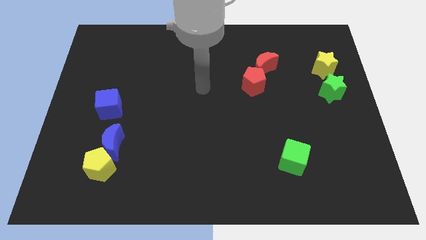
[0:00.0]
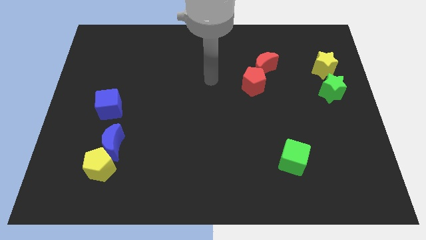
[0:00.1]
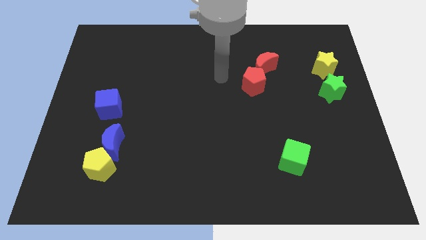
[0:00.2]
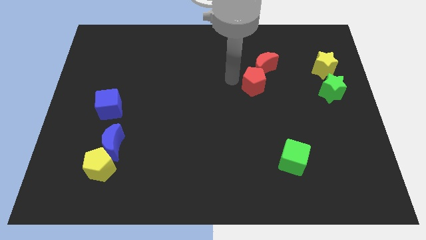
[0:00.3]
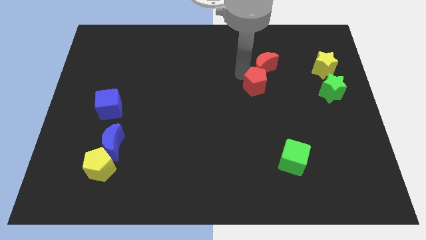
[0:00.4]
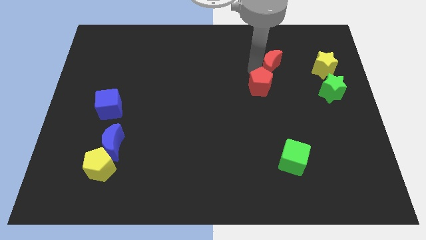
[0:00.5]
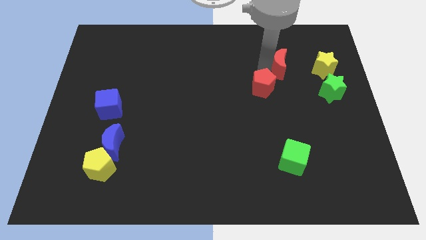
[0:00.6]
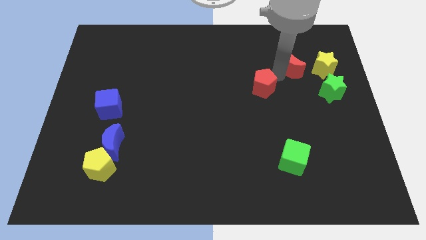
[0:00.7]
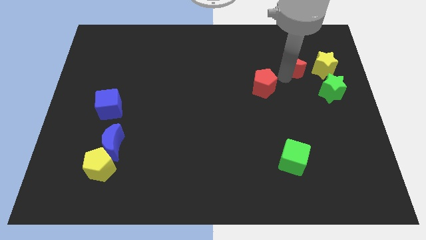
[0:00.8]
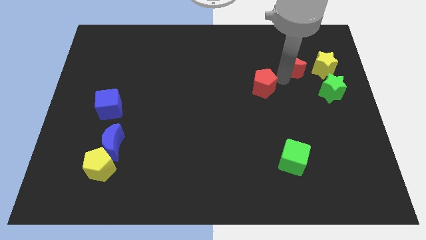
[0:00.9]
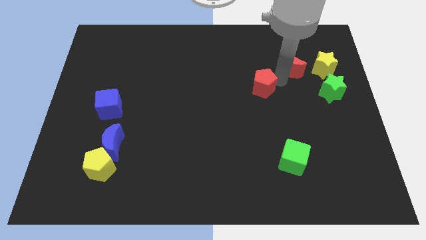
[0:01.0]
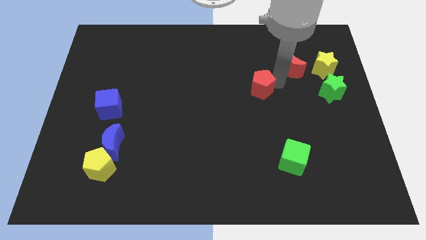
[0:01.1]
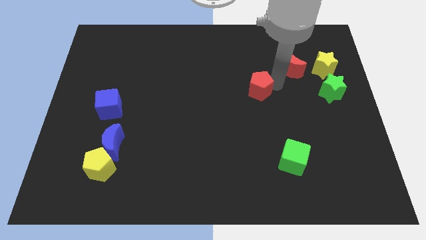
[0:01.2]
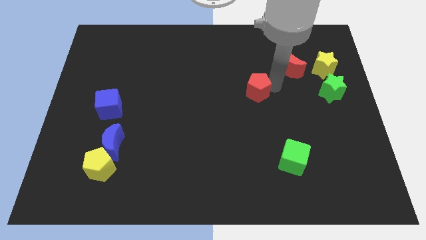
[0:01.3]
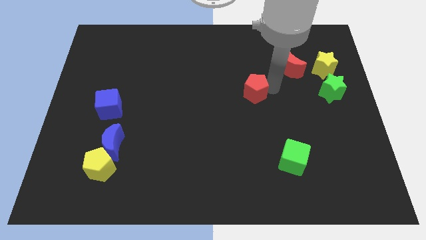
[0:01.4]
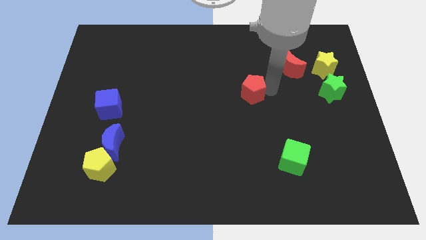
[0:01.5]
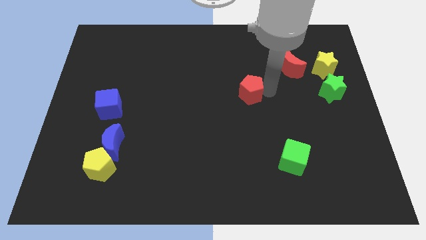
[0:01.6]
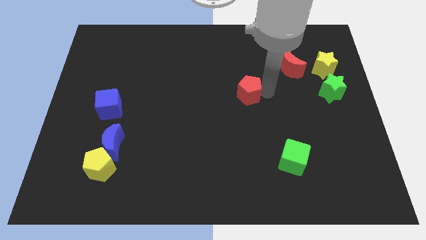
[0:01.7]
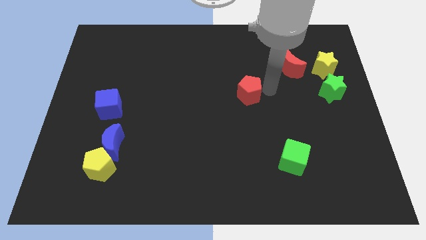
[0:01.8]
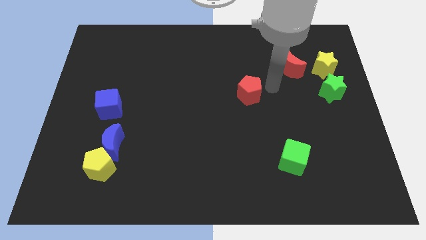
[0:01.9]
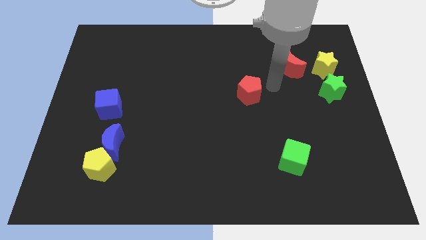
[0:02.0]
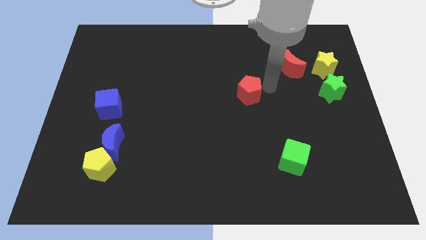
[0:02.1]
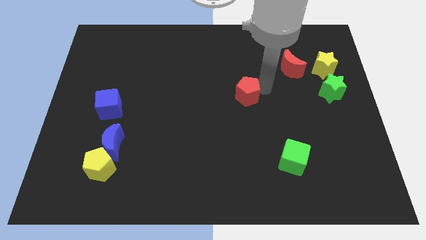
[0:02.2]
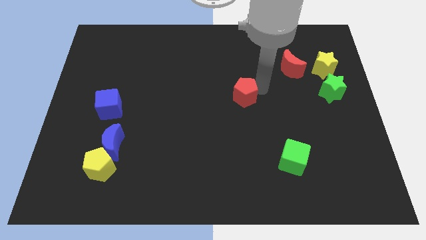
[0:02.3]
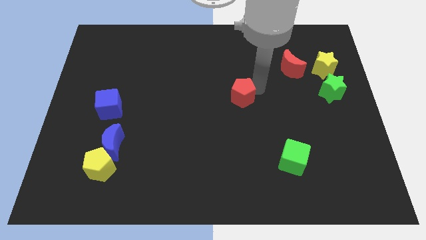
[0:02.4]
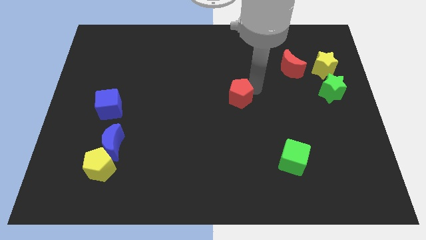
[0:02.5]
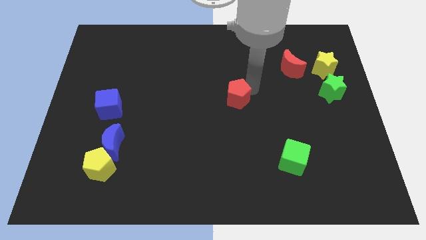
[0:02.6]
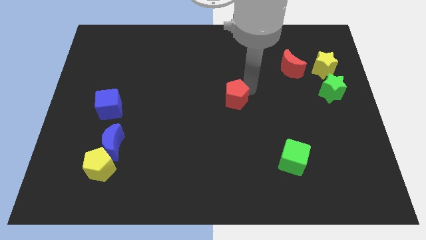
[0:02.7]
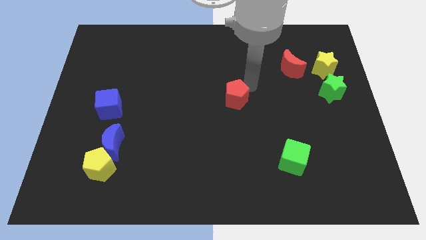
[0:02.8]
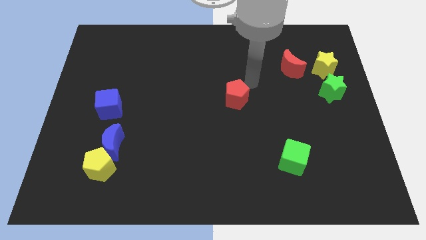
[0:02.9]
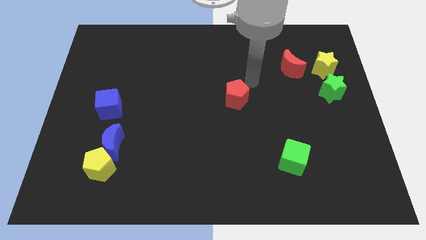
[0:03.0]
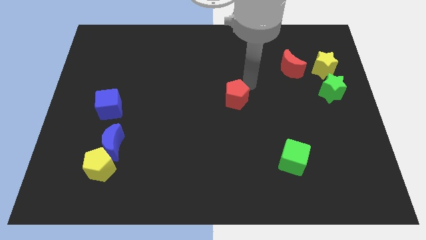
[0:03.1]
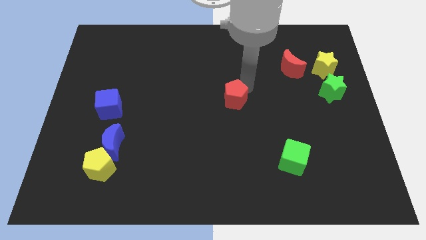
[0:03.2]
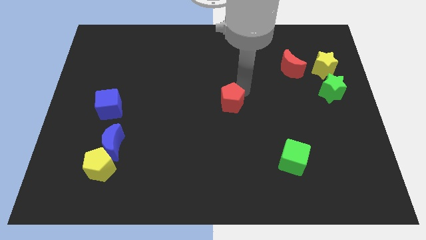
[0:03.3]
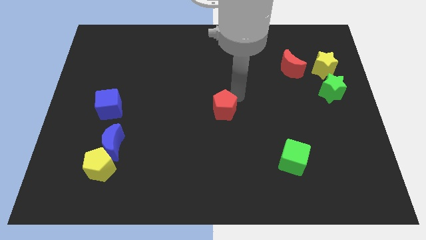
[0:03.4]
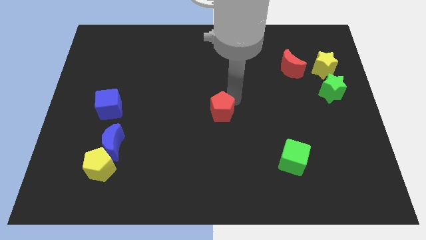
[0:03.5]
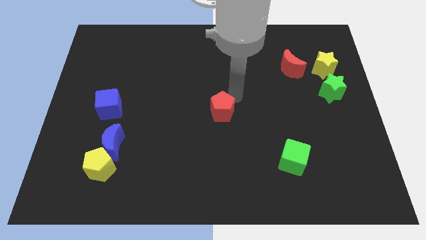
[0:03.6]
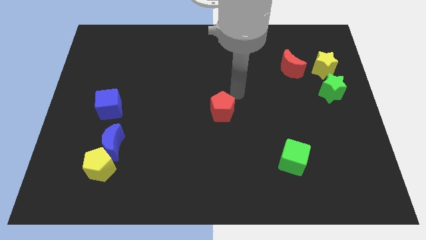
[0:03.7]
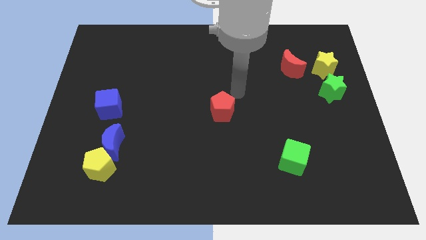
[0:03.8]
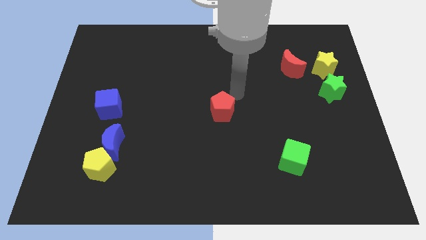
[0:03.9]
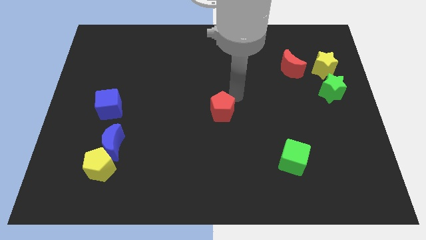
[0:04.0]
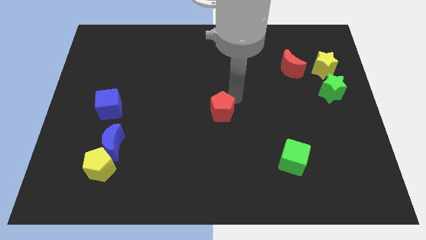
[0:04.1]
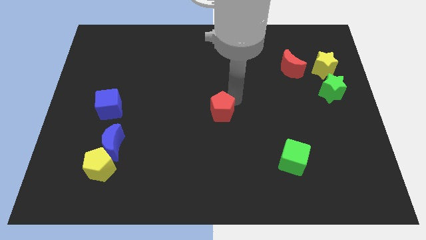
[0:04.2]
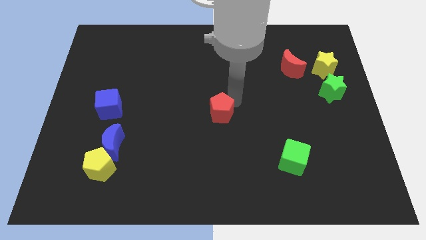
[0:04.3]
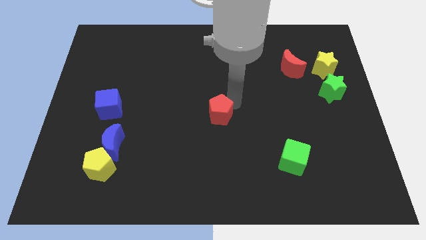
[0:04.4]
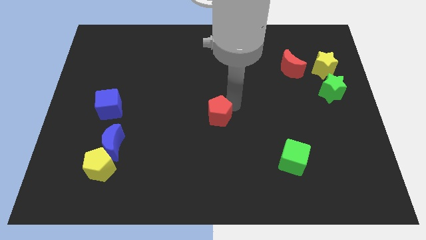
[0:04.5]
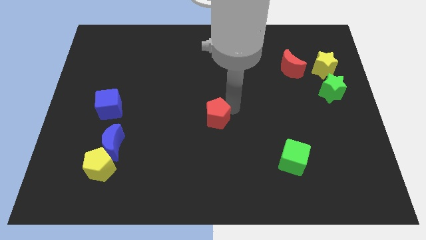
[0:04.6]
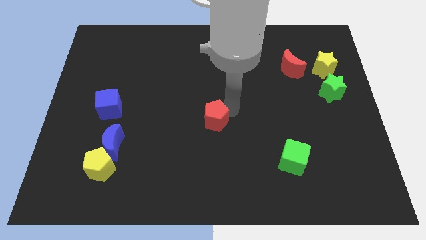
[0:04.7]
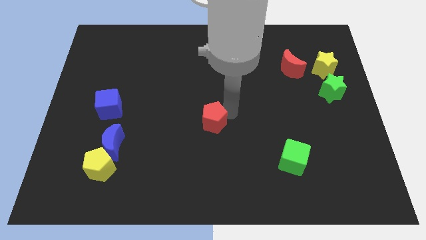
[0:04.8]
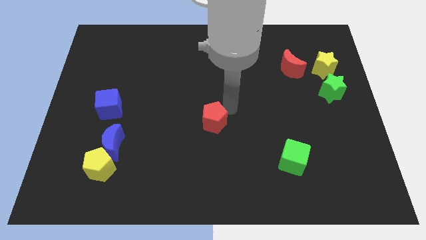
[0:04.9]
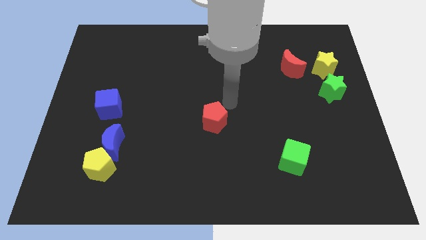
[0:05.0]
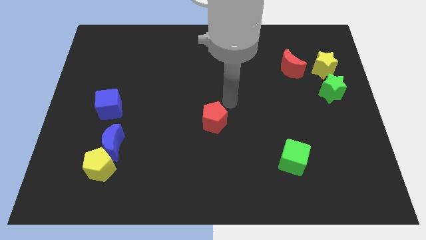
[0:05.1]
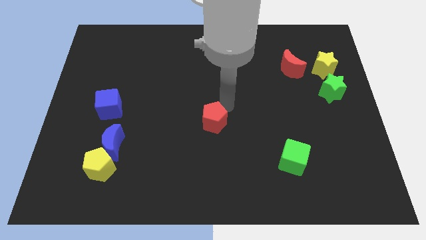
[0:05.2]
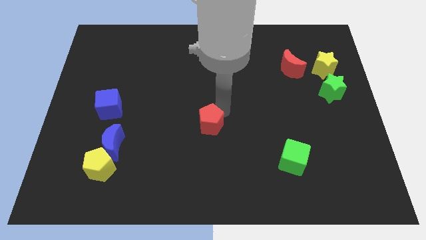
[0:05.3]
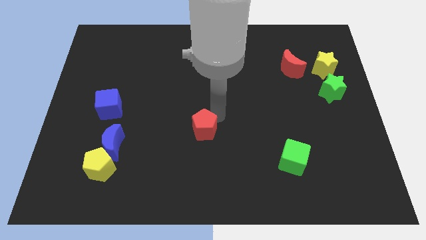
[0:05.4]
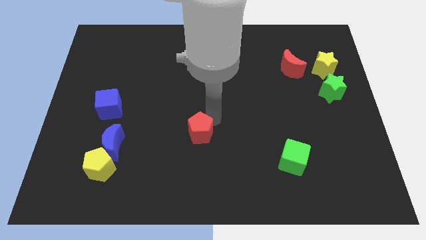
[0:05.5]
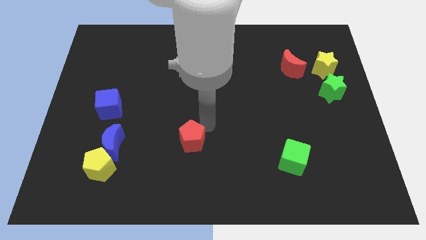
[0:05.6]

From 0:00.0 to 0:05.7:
move the red pentagon down and to the left diagonally

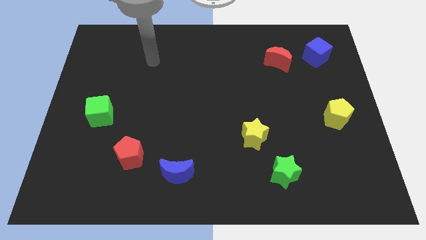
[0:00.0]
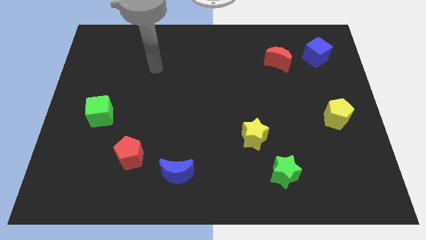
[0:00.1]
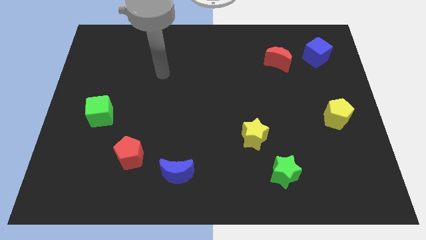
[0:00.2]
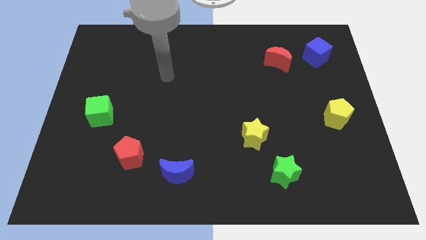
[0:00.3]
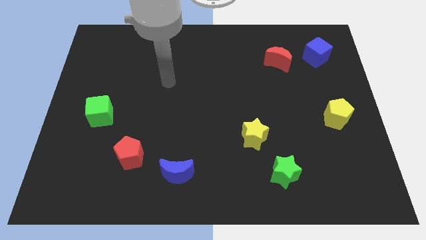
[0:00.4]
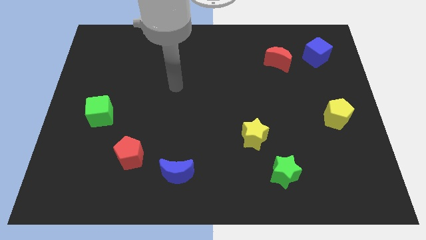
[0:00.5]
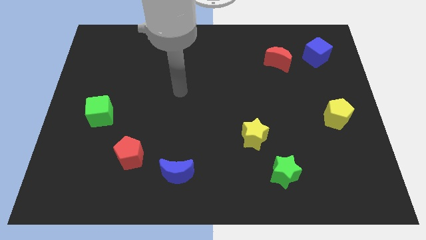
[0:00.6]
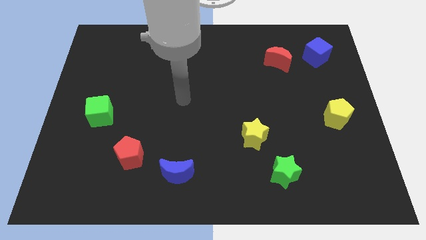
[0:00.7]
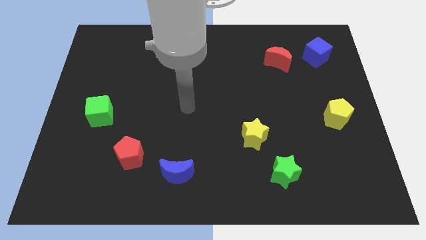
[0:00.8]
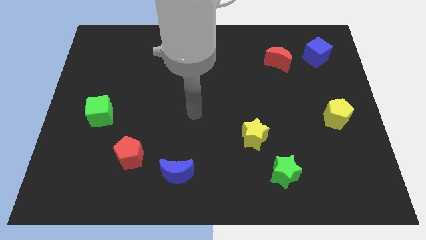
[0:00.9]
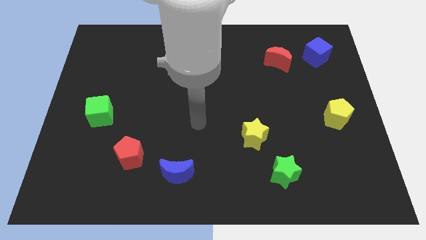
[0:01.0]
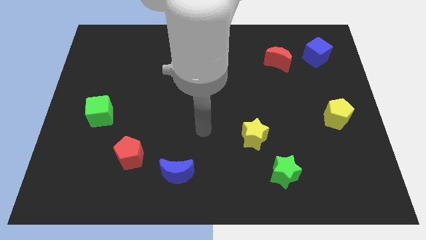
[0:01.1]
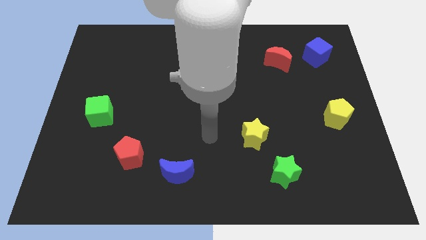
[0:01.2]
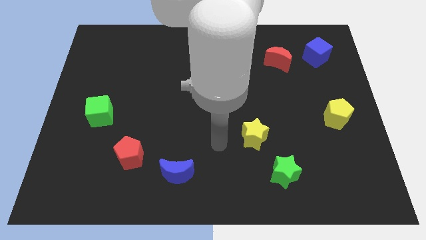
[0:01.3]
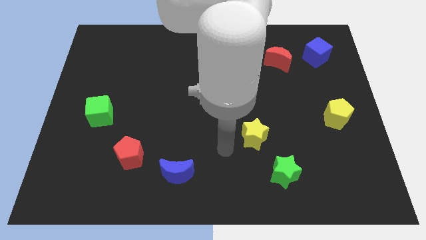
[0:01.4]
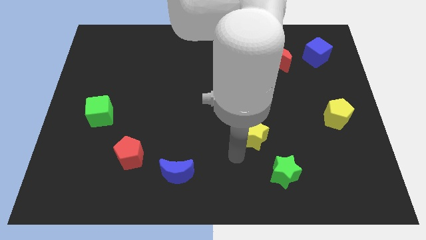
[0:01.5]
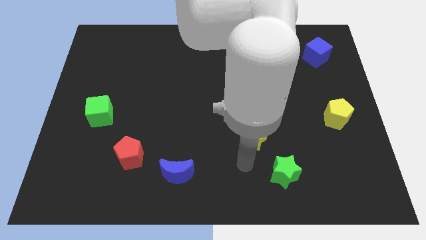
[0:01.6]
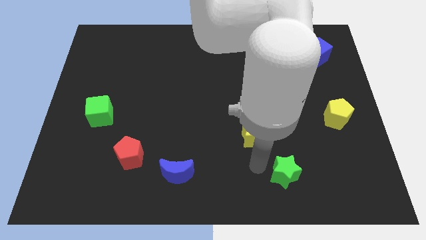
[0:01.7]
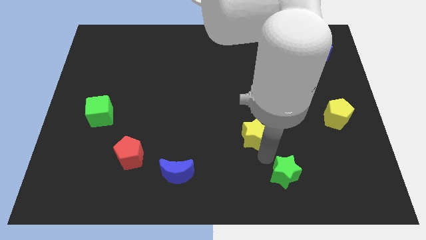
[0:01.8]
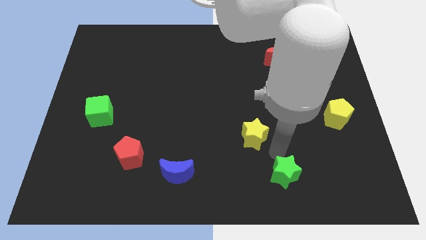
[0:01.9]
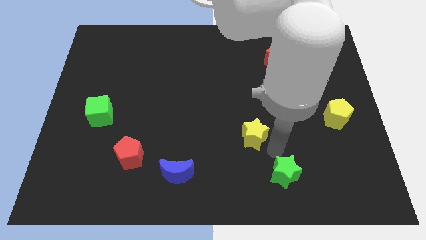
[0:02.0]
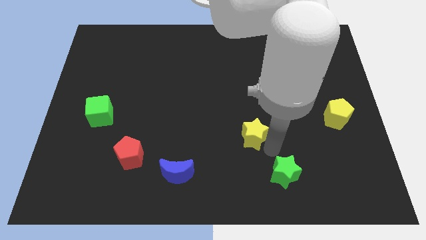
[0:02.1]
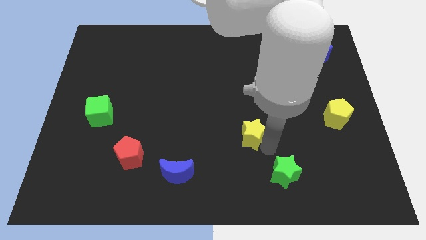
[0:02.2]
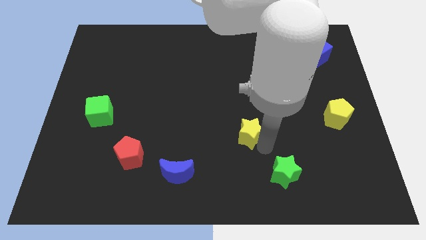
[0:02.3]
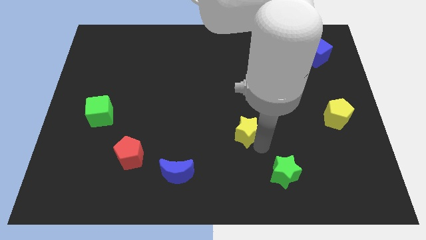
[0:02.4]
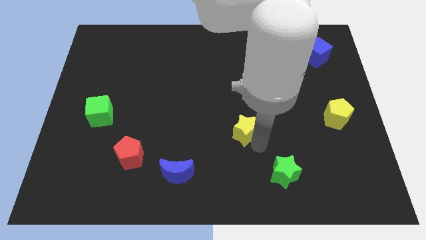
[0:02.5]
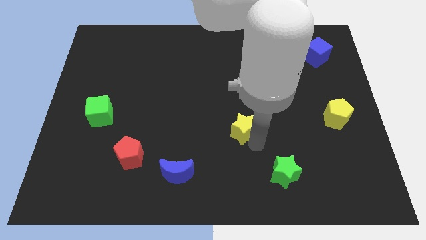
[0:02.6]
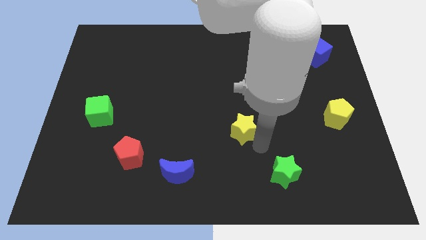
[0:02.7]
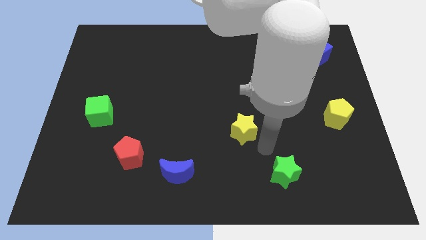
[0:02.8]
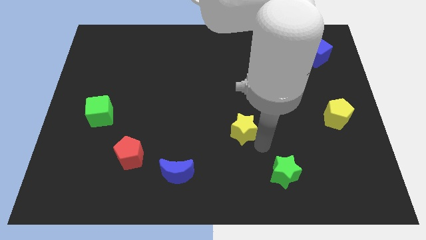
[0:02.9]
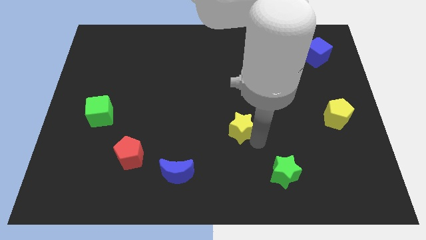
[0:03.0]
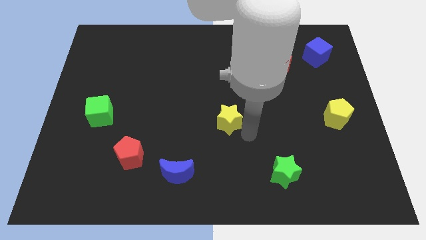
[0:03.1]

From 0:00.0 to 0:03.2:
slightly slide the yellow star upwards and left diagonally
